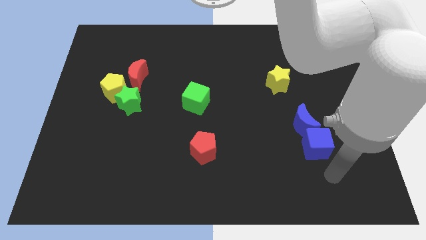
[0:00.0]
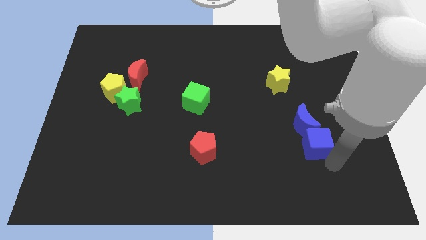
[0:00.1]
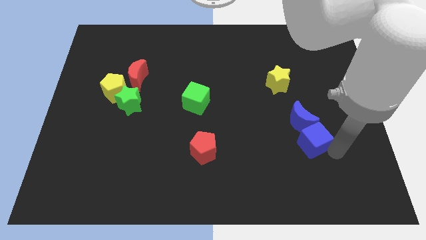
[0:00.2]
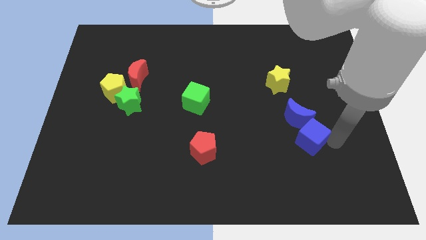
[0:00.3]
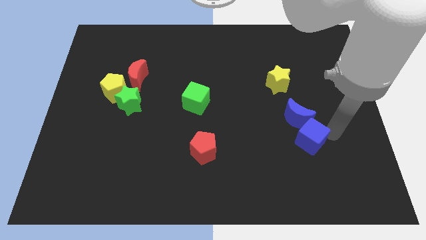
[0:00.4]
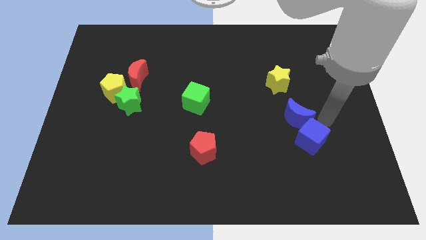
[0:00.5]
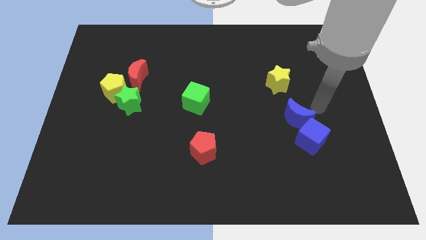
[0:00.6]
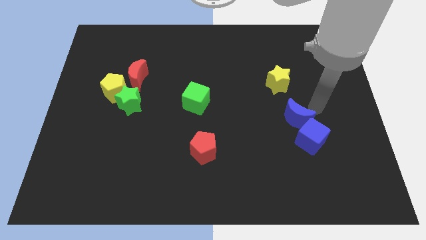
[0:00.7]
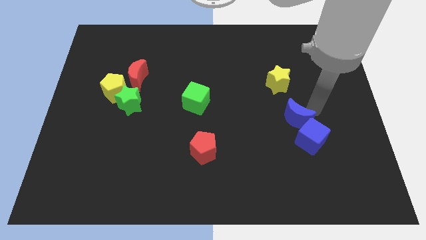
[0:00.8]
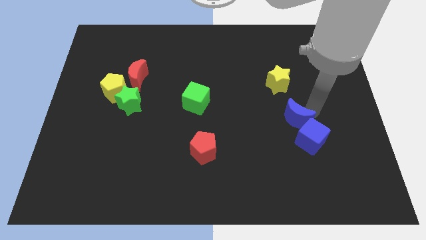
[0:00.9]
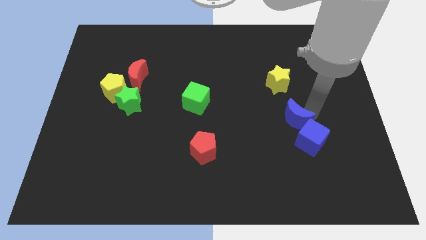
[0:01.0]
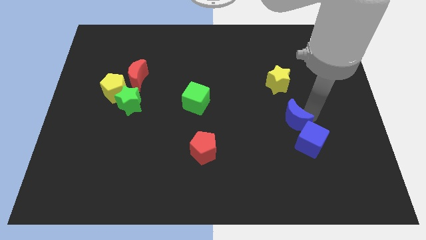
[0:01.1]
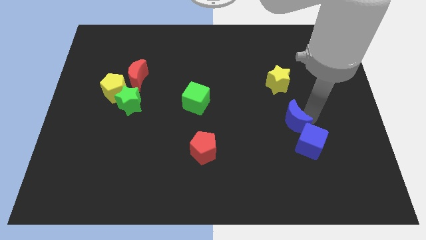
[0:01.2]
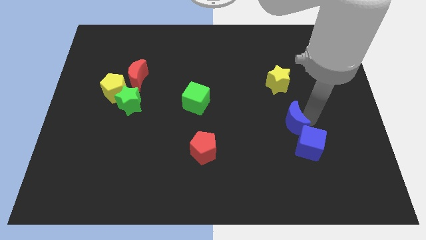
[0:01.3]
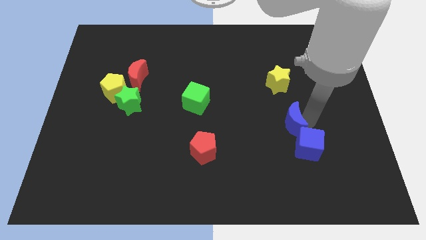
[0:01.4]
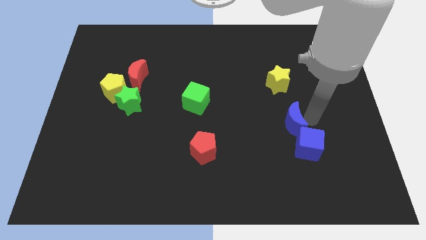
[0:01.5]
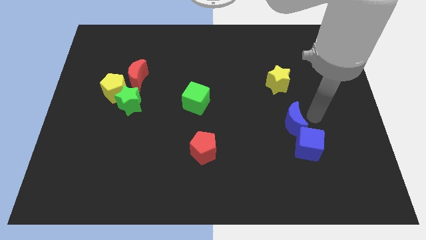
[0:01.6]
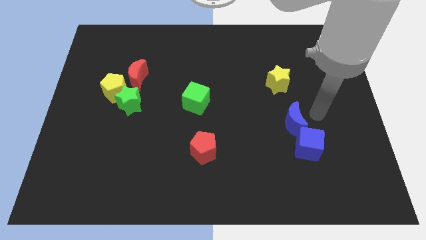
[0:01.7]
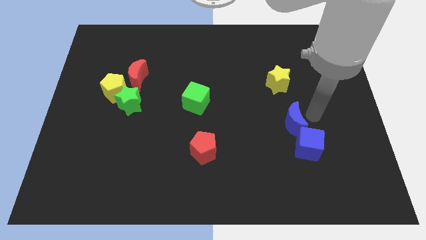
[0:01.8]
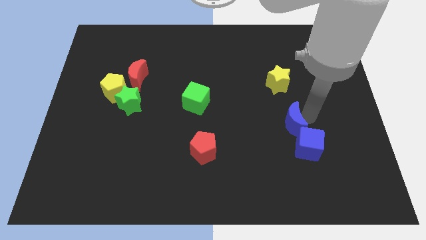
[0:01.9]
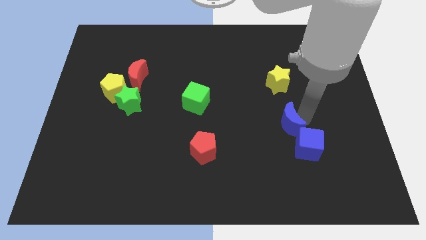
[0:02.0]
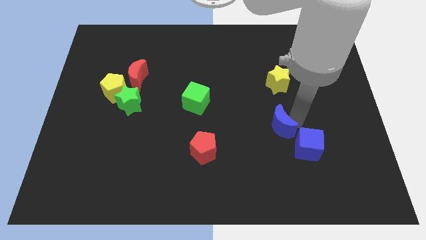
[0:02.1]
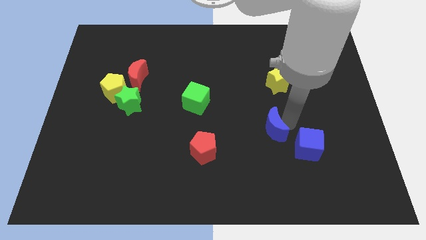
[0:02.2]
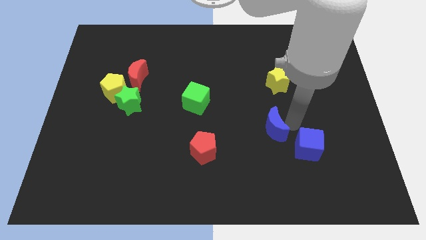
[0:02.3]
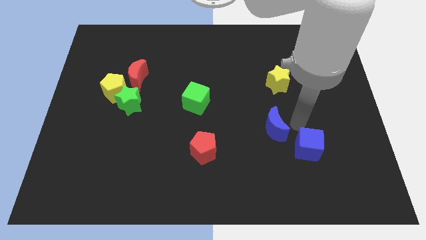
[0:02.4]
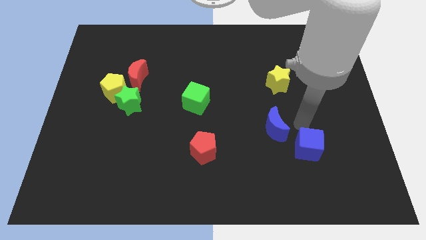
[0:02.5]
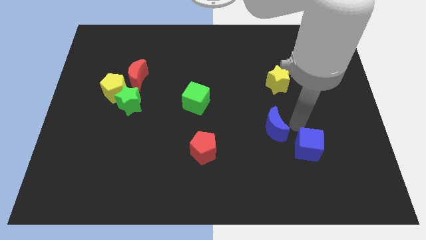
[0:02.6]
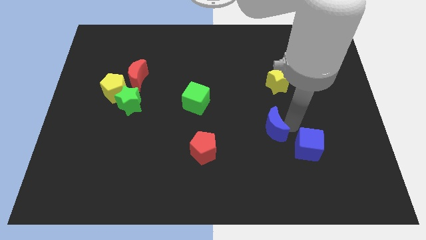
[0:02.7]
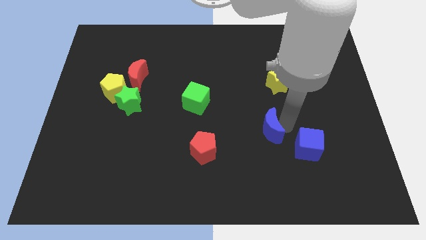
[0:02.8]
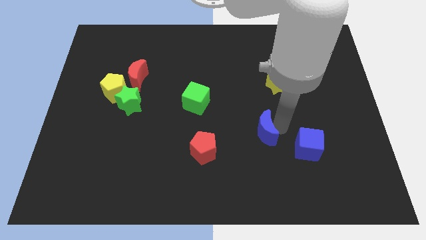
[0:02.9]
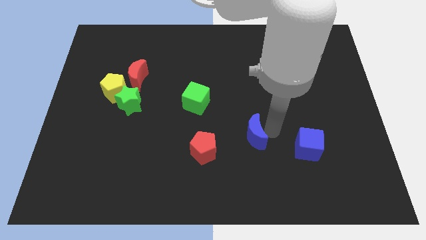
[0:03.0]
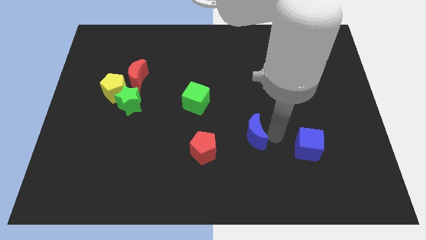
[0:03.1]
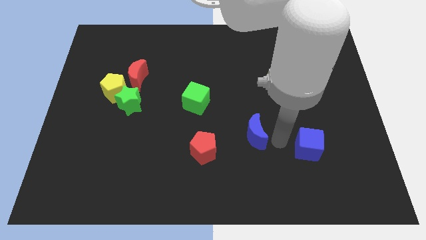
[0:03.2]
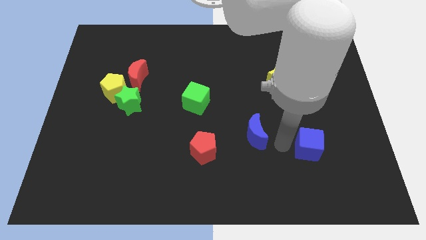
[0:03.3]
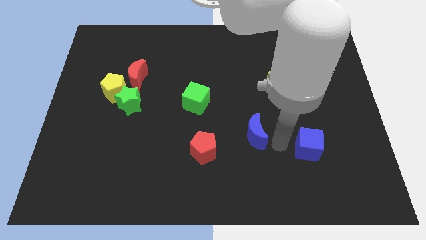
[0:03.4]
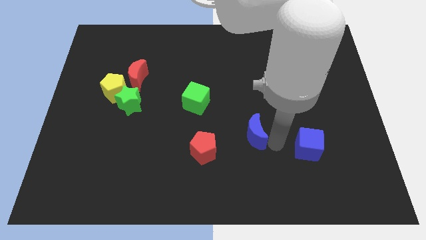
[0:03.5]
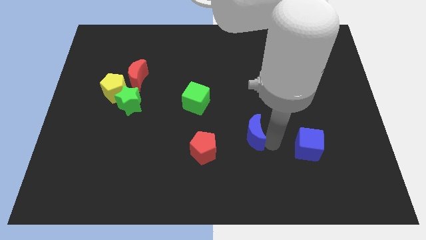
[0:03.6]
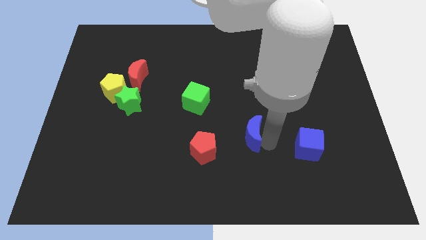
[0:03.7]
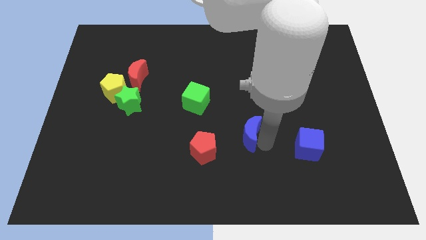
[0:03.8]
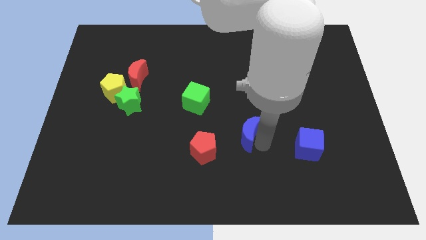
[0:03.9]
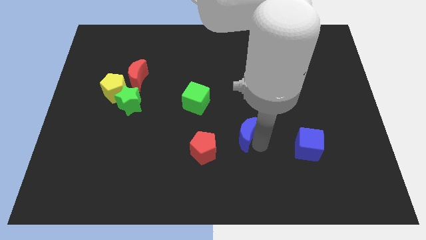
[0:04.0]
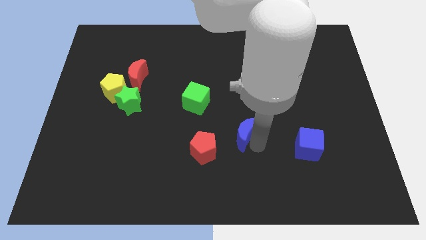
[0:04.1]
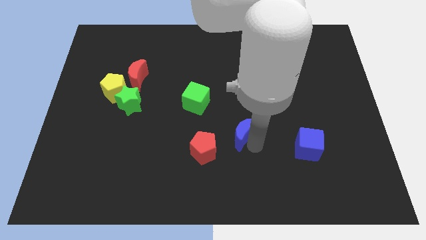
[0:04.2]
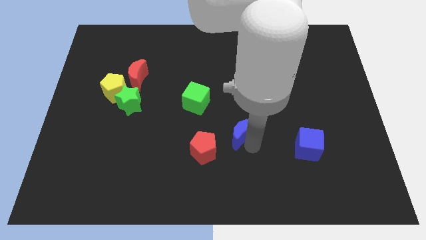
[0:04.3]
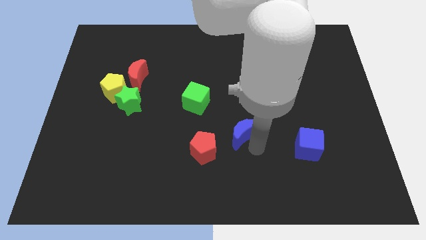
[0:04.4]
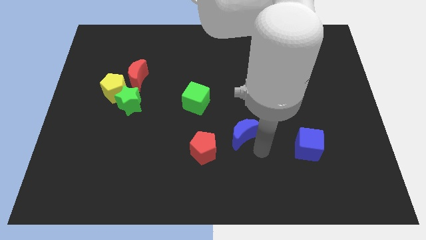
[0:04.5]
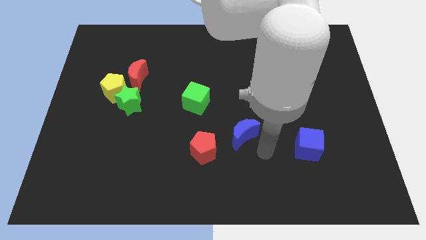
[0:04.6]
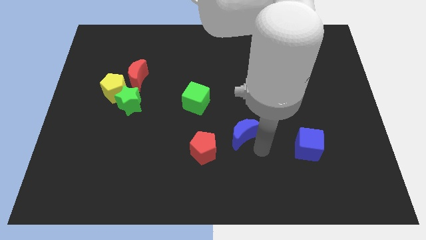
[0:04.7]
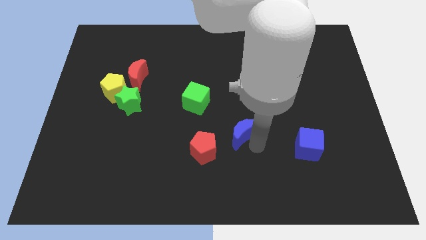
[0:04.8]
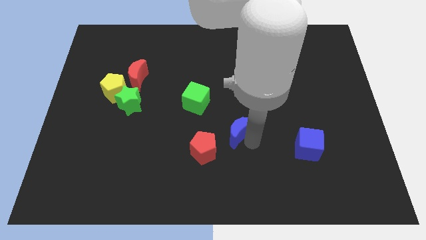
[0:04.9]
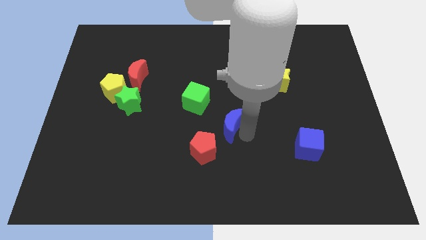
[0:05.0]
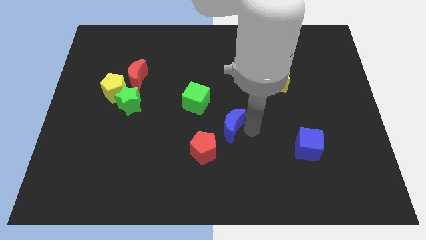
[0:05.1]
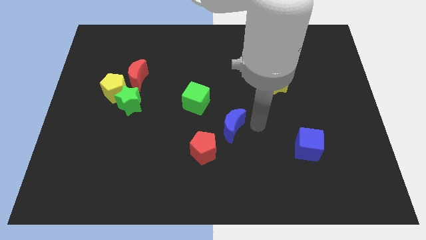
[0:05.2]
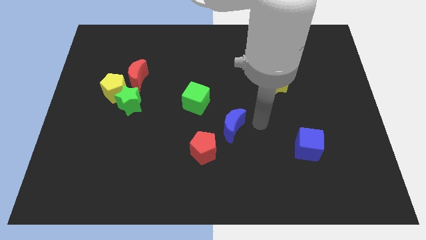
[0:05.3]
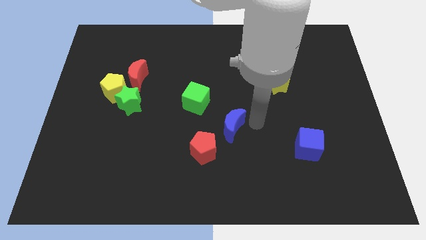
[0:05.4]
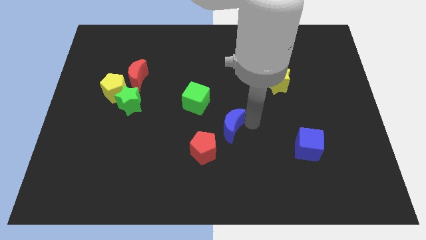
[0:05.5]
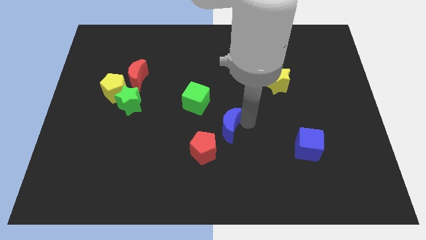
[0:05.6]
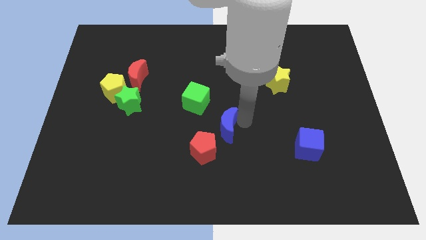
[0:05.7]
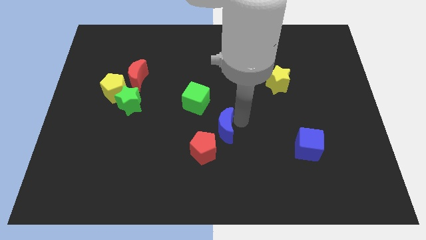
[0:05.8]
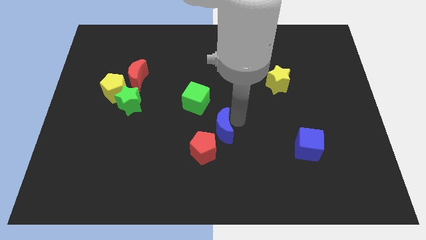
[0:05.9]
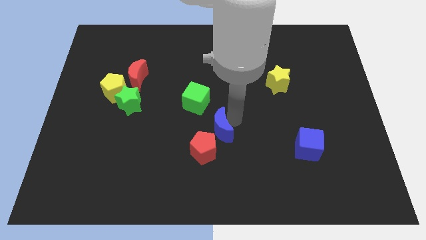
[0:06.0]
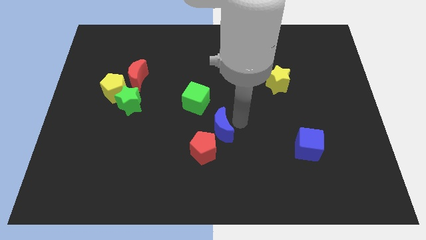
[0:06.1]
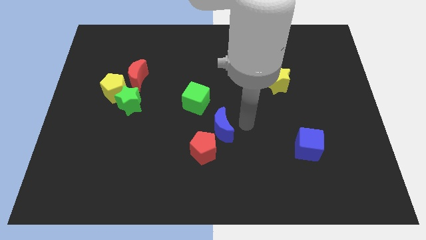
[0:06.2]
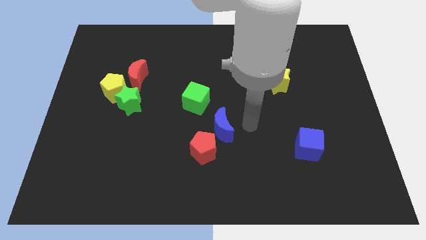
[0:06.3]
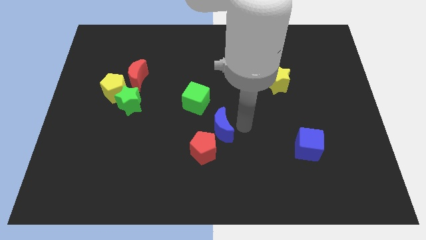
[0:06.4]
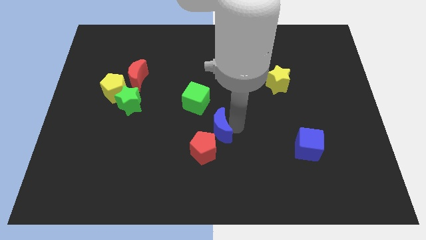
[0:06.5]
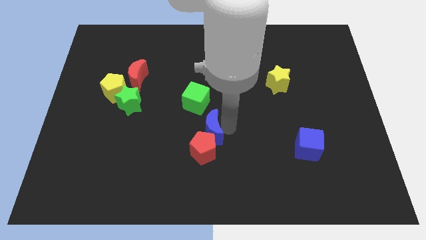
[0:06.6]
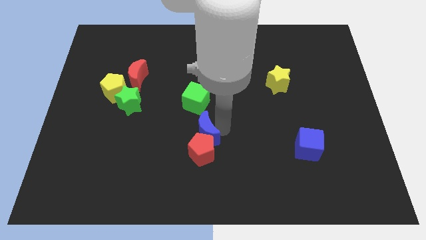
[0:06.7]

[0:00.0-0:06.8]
push the blue moon to the top left of the red pentagon

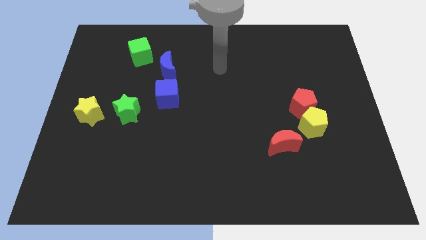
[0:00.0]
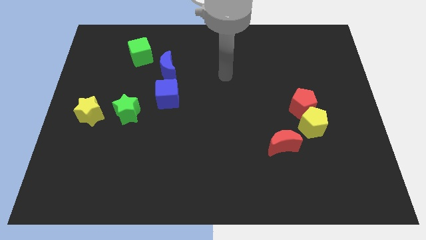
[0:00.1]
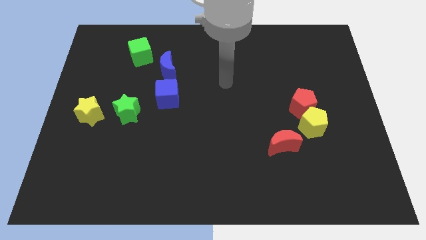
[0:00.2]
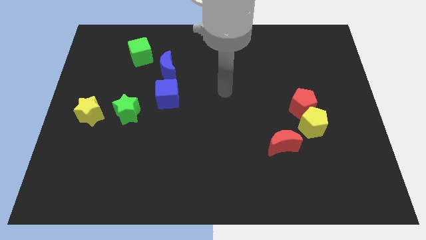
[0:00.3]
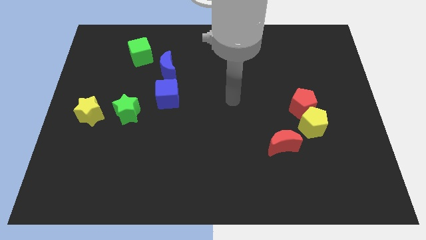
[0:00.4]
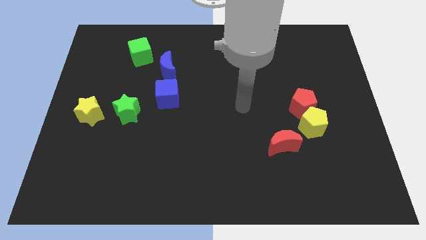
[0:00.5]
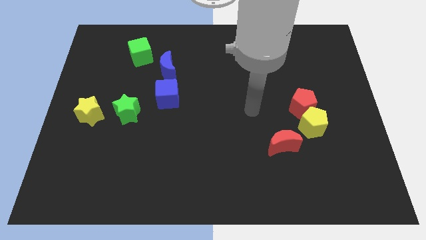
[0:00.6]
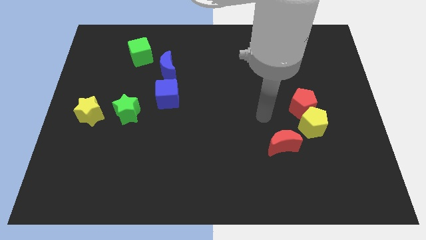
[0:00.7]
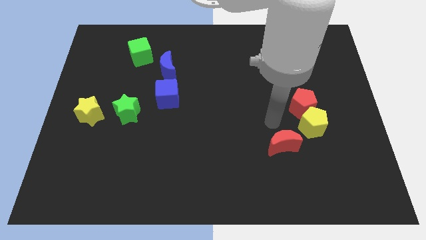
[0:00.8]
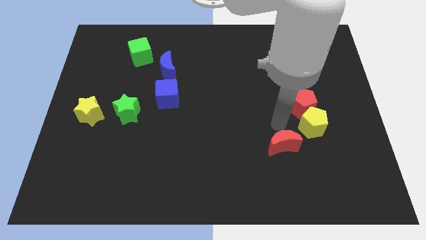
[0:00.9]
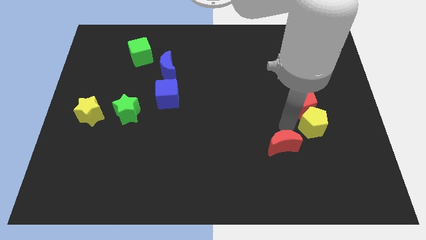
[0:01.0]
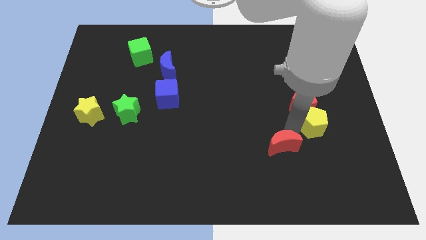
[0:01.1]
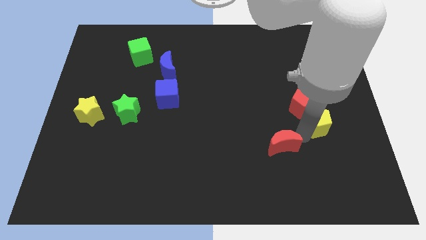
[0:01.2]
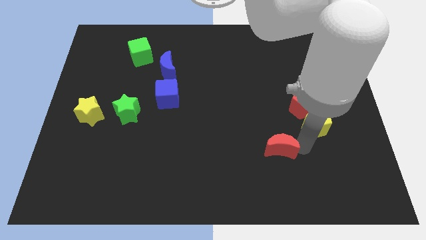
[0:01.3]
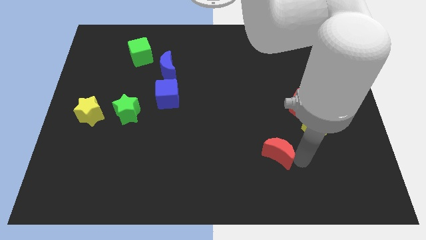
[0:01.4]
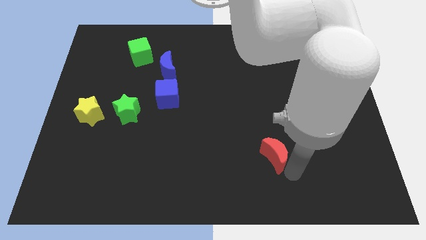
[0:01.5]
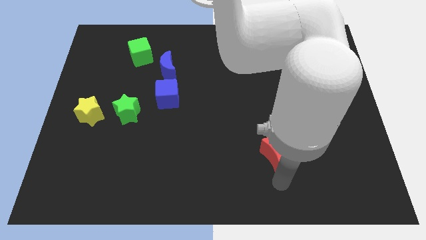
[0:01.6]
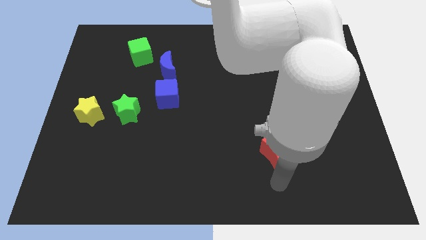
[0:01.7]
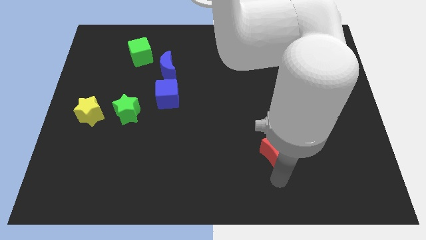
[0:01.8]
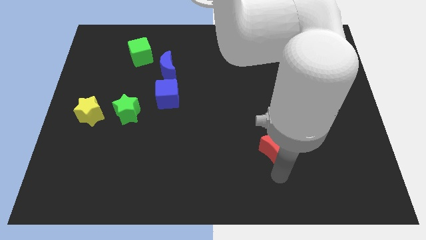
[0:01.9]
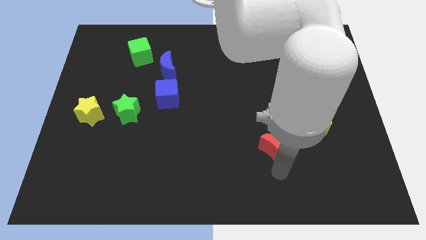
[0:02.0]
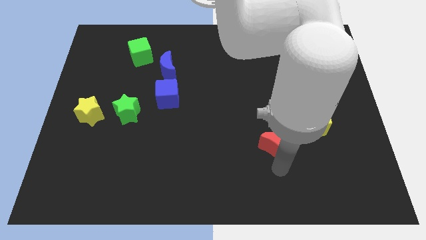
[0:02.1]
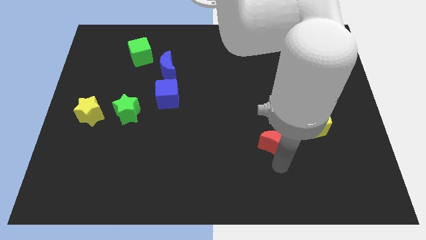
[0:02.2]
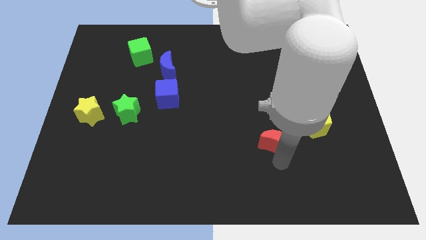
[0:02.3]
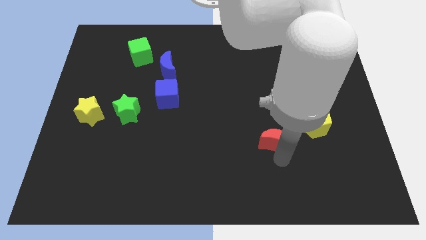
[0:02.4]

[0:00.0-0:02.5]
put the red moon left of the yellow pentagon
